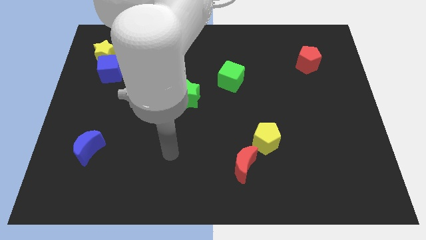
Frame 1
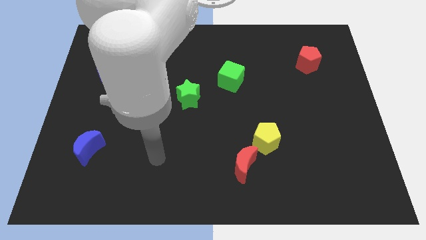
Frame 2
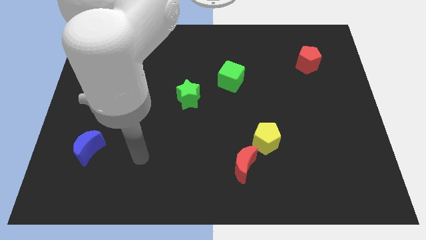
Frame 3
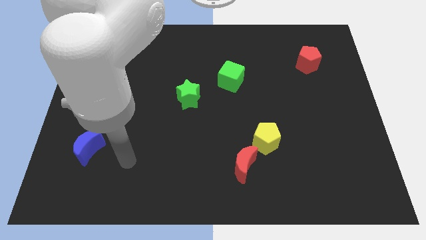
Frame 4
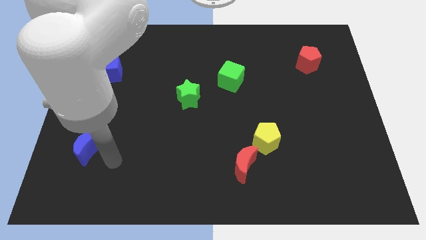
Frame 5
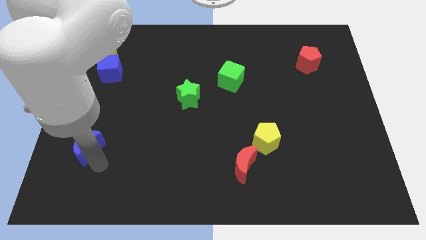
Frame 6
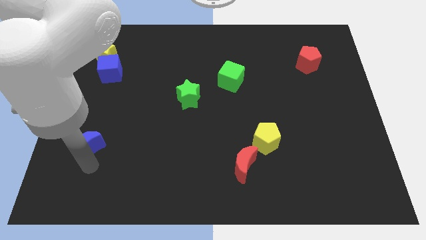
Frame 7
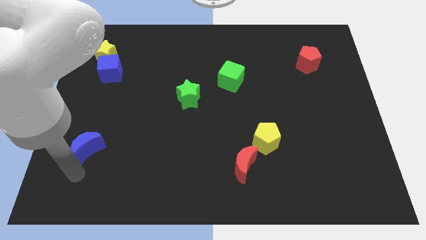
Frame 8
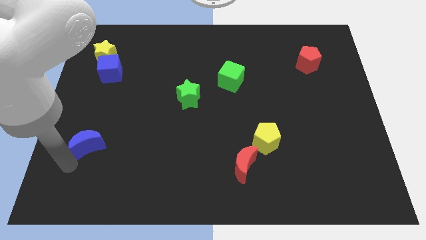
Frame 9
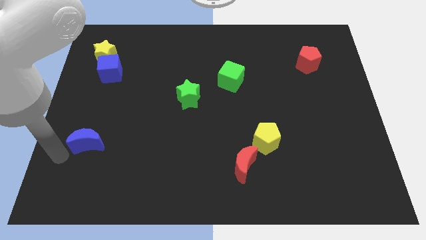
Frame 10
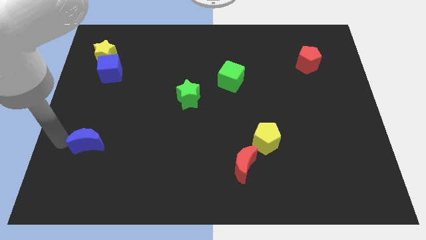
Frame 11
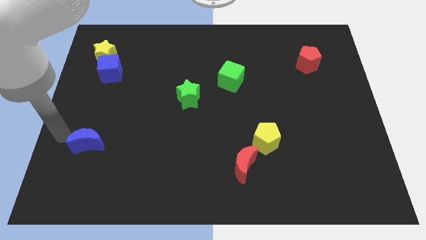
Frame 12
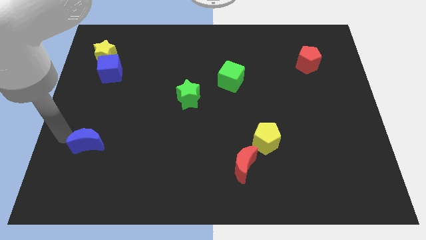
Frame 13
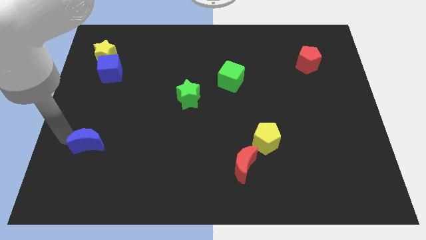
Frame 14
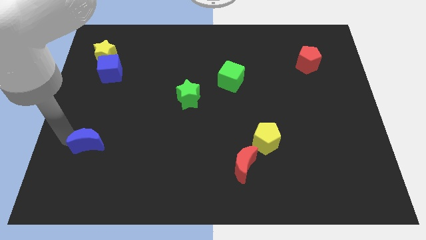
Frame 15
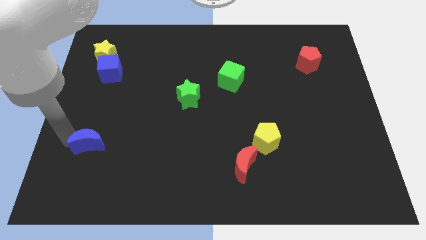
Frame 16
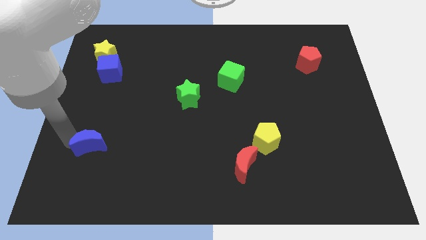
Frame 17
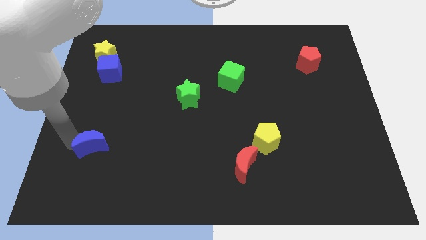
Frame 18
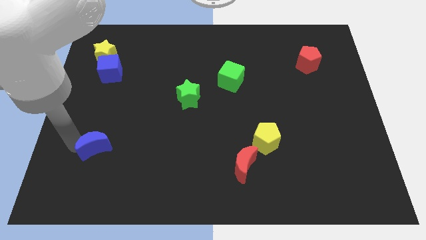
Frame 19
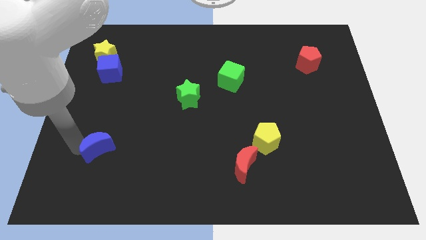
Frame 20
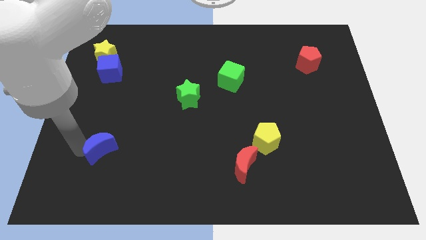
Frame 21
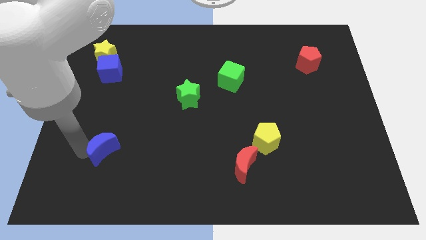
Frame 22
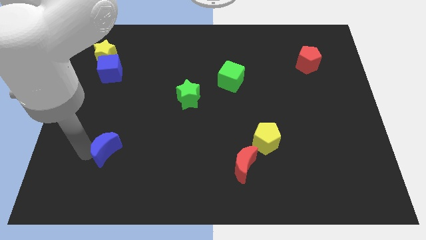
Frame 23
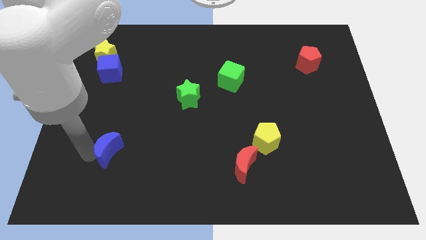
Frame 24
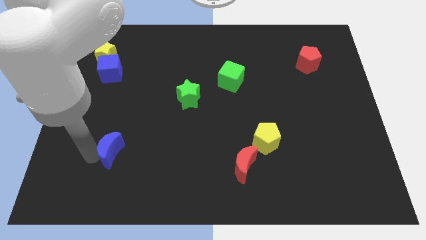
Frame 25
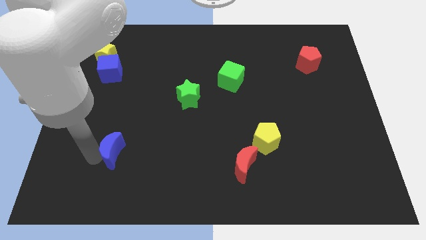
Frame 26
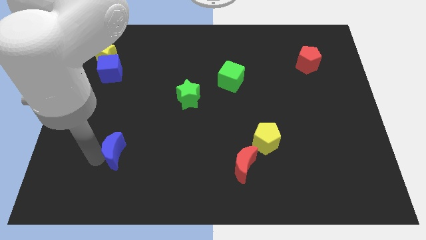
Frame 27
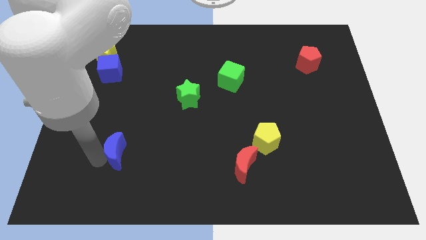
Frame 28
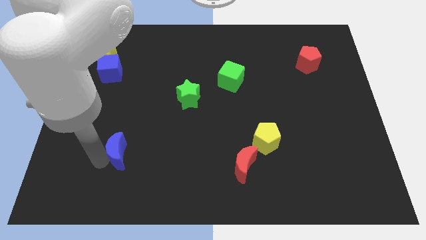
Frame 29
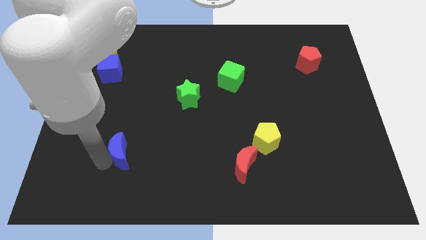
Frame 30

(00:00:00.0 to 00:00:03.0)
push the blue moon somewhat right

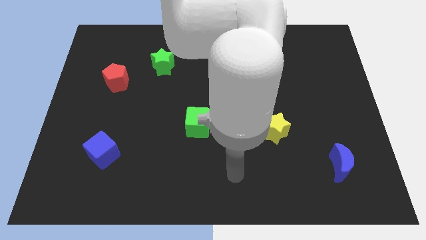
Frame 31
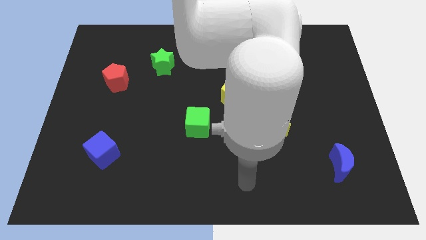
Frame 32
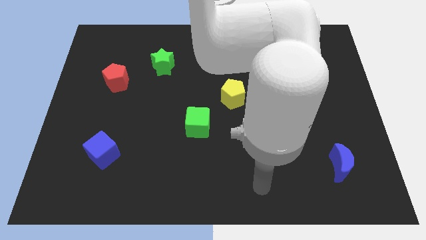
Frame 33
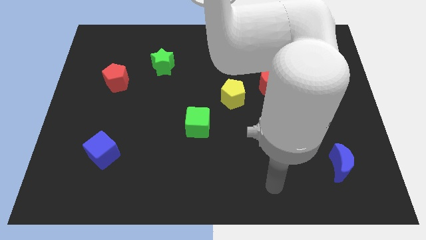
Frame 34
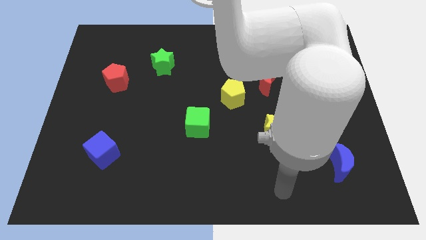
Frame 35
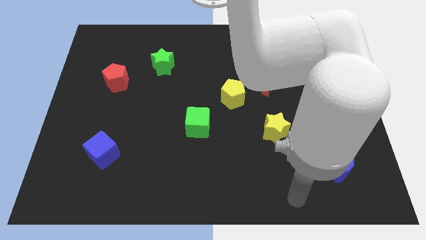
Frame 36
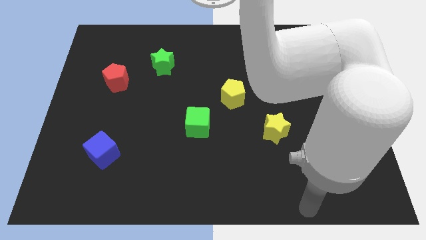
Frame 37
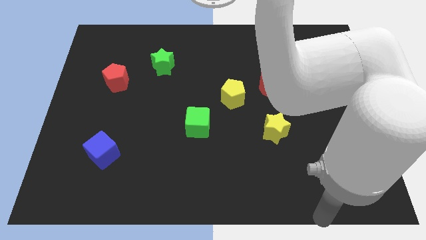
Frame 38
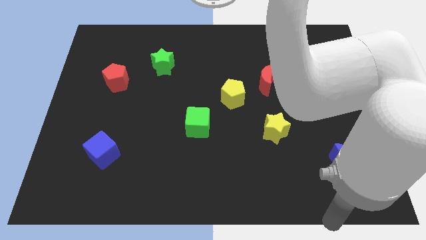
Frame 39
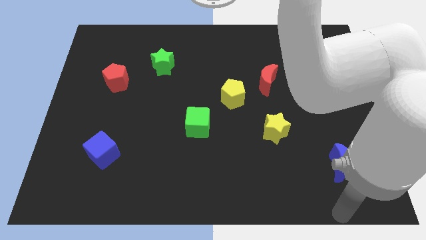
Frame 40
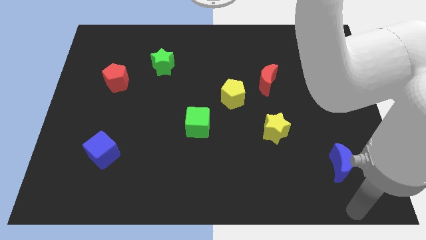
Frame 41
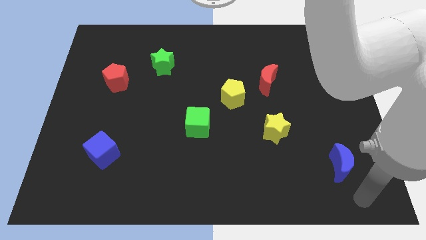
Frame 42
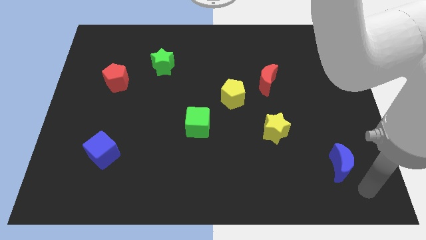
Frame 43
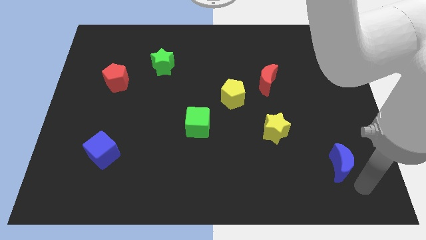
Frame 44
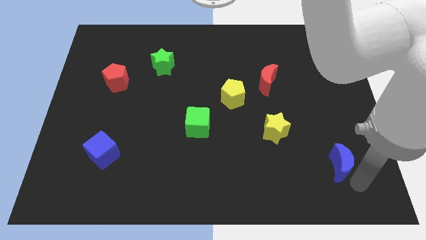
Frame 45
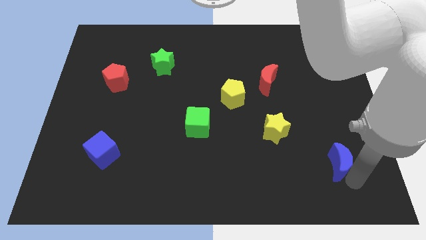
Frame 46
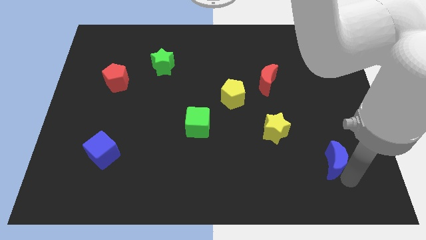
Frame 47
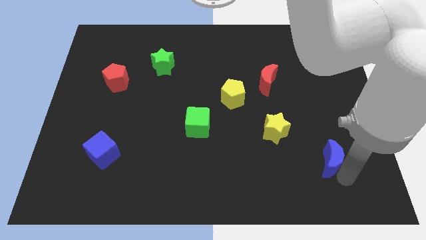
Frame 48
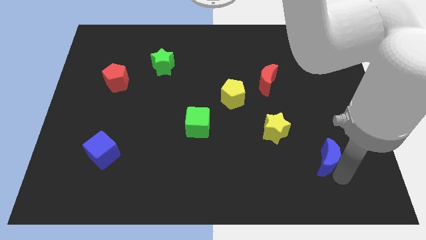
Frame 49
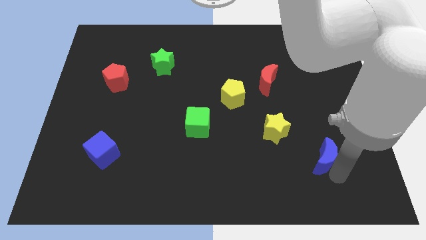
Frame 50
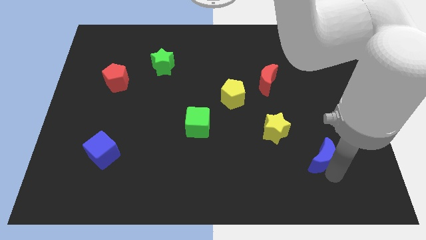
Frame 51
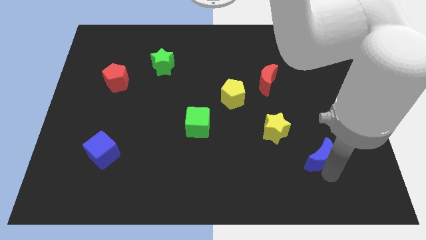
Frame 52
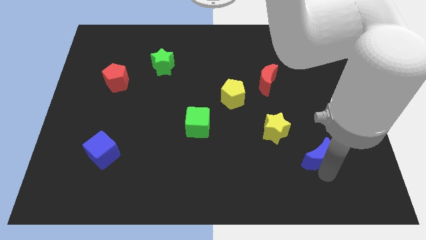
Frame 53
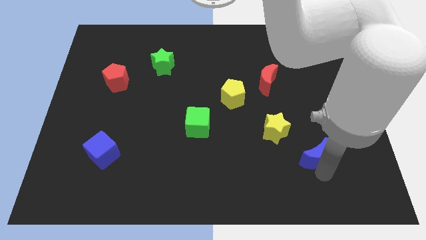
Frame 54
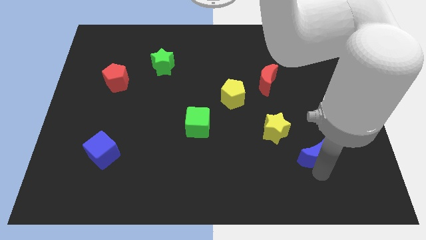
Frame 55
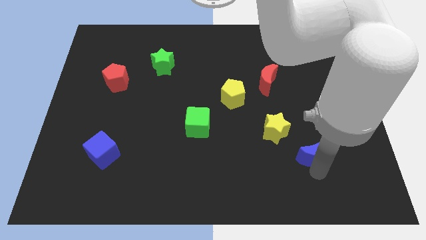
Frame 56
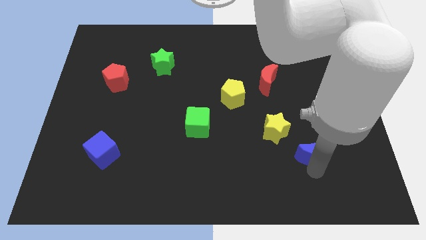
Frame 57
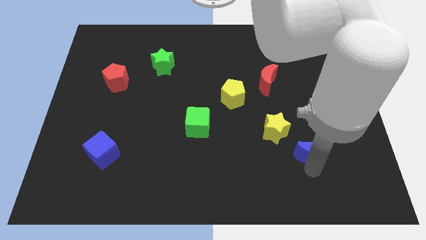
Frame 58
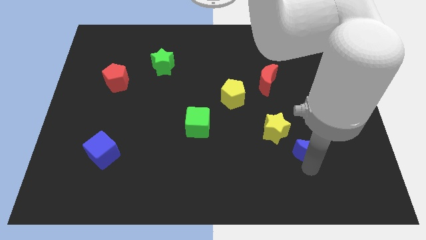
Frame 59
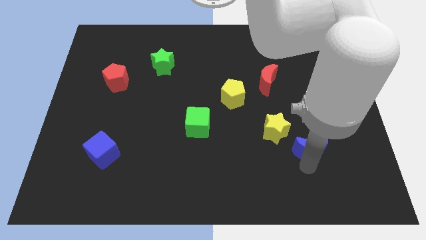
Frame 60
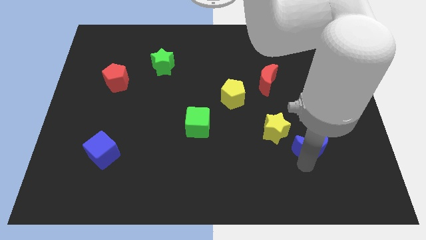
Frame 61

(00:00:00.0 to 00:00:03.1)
slightly move the blue moon up and then to the left

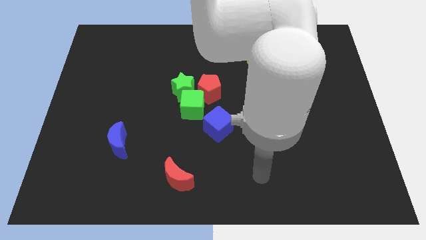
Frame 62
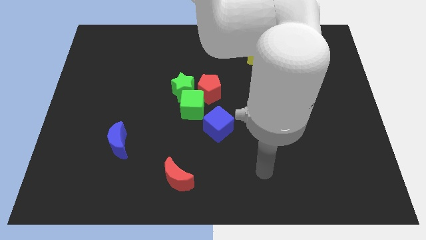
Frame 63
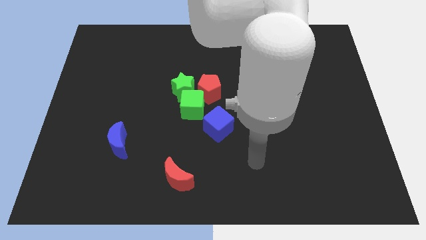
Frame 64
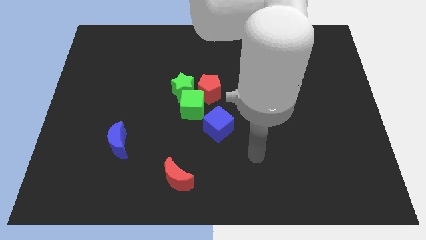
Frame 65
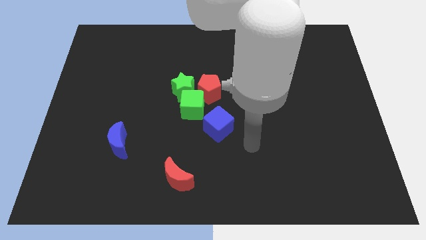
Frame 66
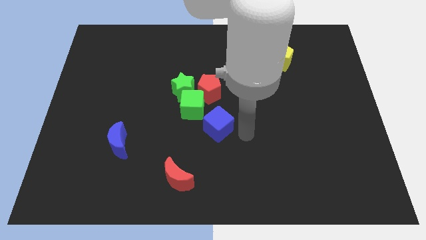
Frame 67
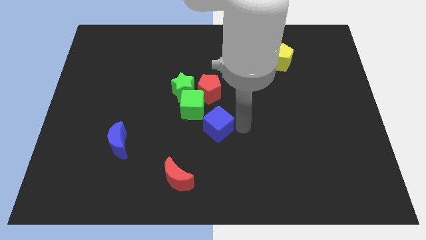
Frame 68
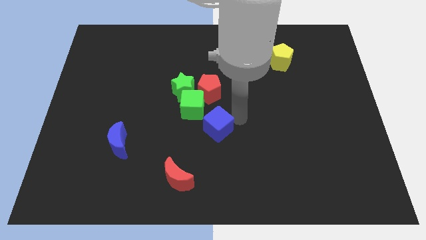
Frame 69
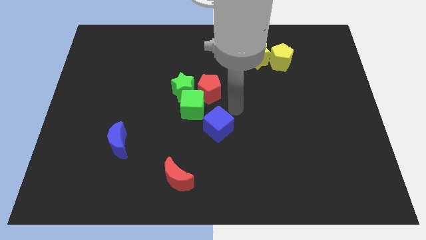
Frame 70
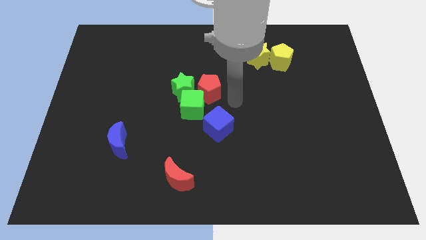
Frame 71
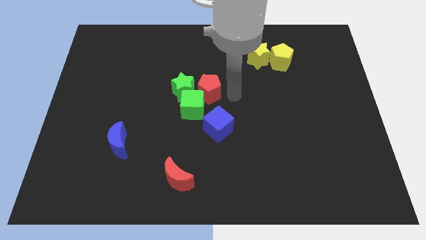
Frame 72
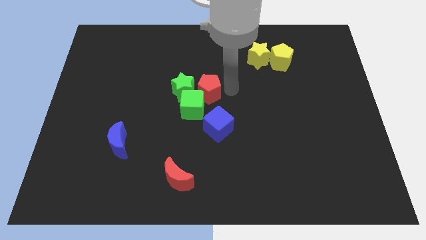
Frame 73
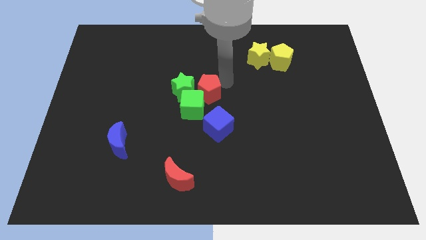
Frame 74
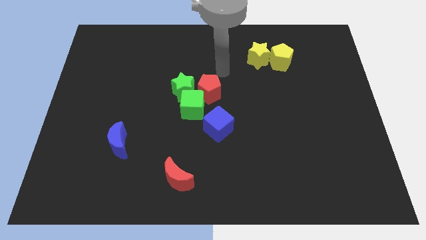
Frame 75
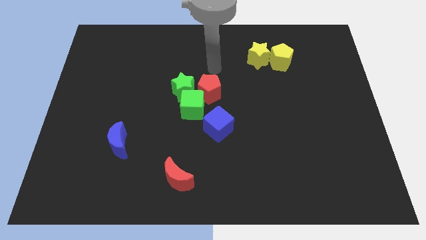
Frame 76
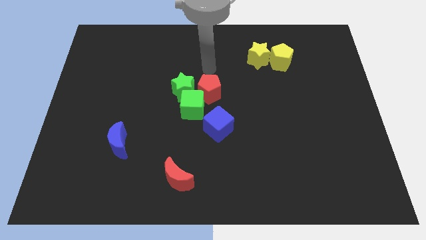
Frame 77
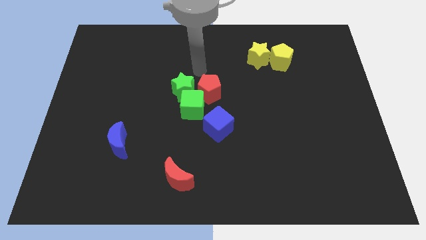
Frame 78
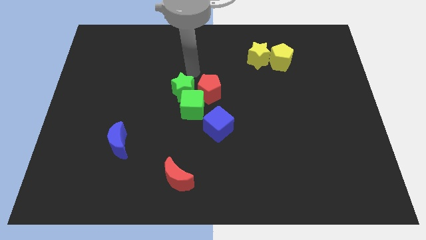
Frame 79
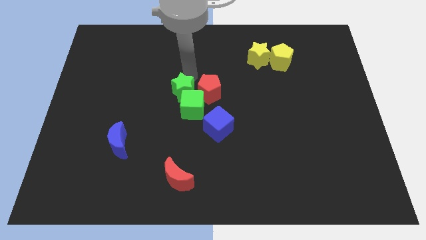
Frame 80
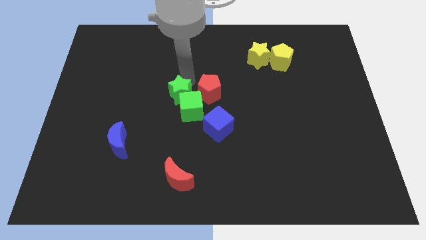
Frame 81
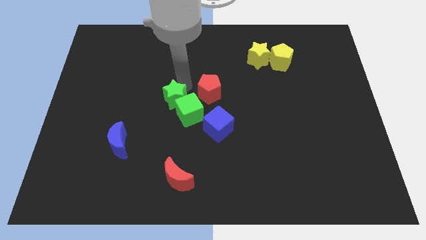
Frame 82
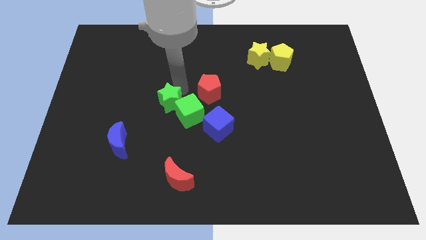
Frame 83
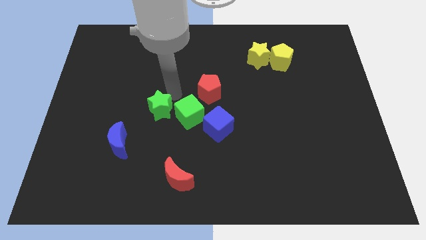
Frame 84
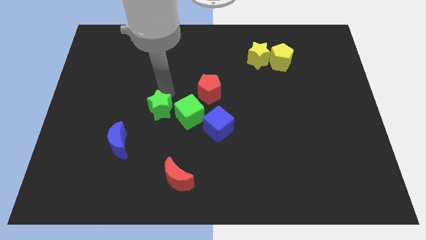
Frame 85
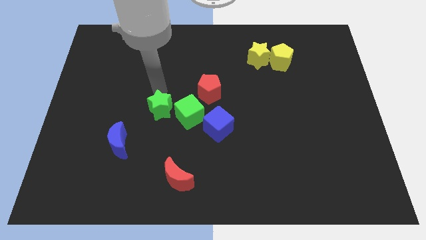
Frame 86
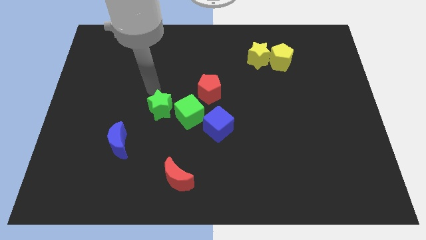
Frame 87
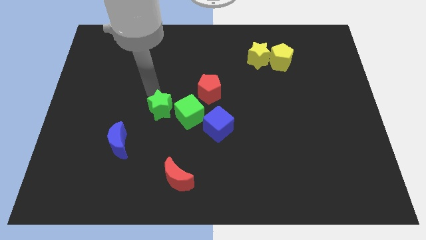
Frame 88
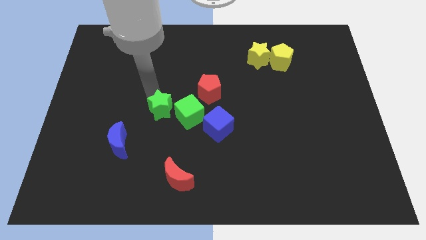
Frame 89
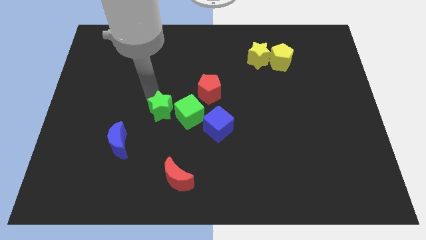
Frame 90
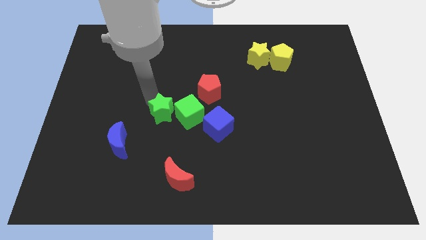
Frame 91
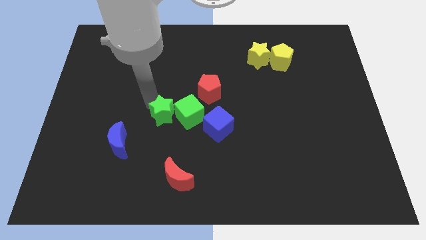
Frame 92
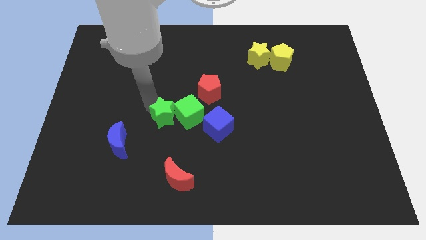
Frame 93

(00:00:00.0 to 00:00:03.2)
push the green star downwards a little bit
